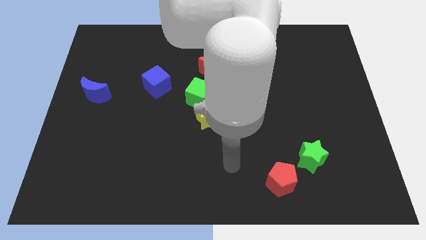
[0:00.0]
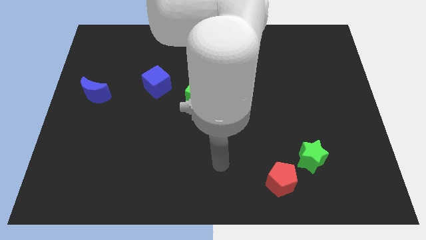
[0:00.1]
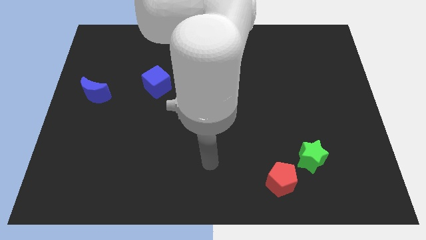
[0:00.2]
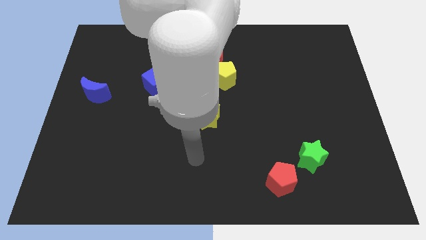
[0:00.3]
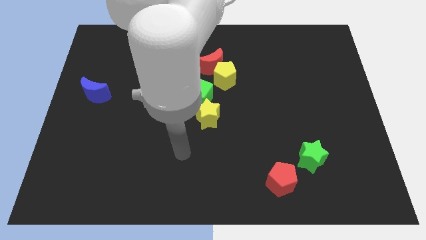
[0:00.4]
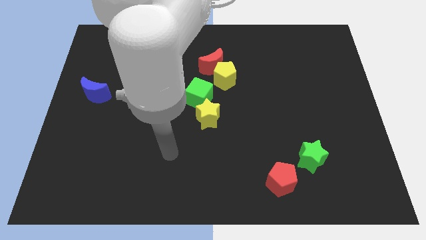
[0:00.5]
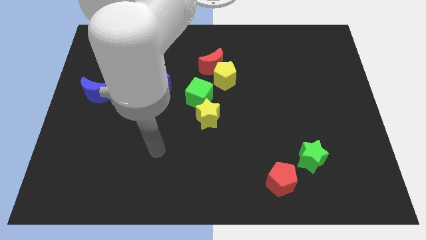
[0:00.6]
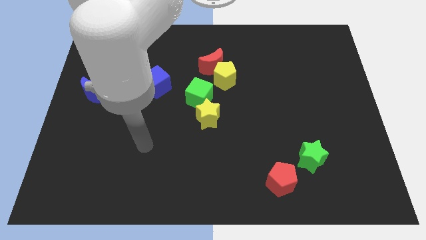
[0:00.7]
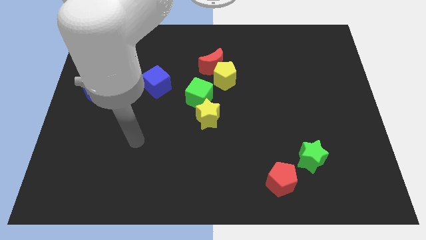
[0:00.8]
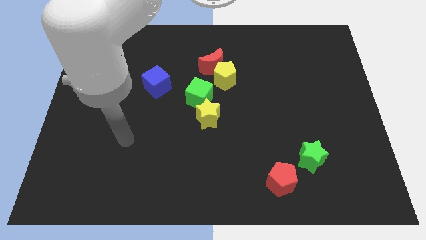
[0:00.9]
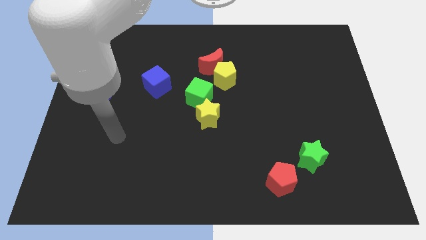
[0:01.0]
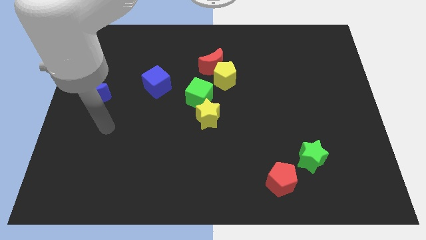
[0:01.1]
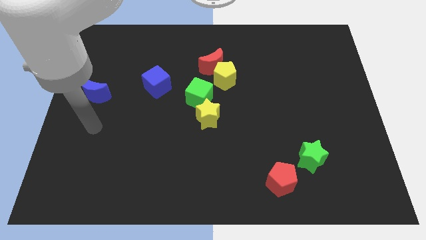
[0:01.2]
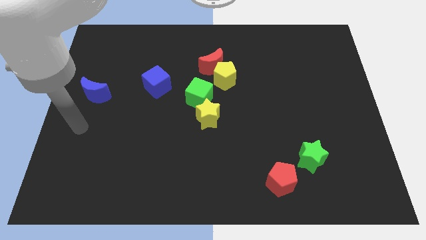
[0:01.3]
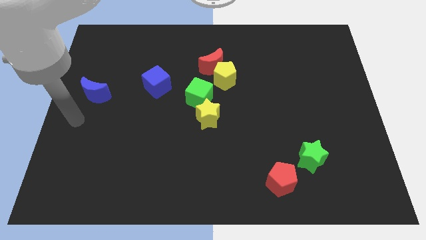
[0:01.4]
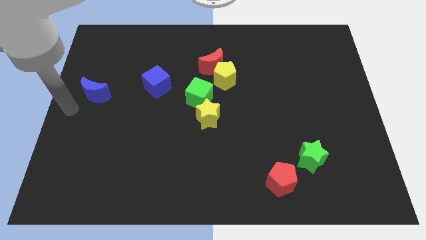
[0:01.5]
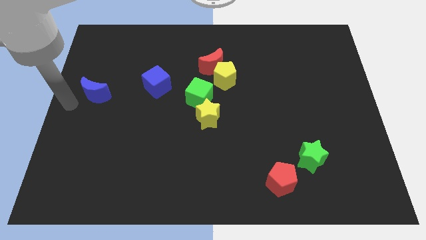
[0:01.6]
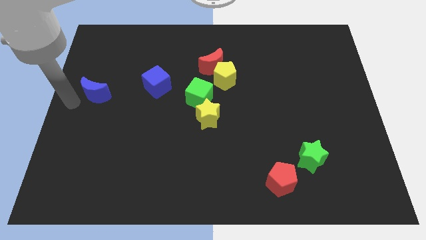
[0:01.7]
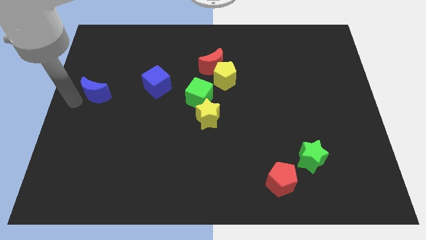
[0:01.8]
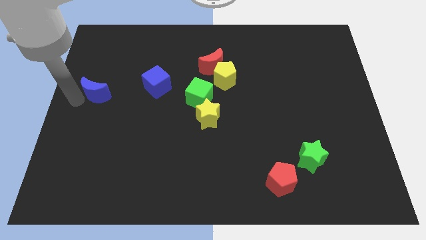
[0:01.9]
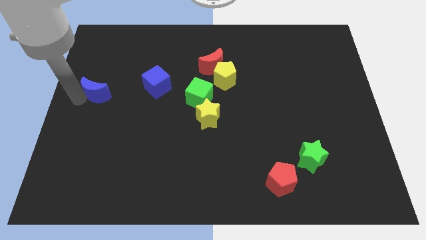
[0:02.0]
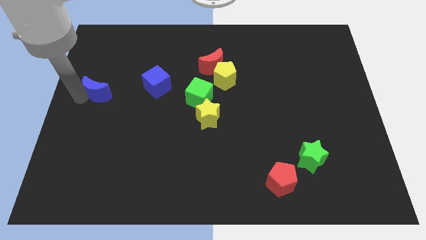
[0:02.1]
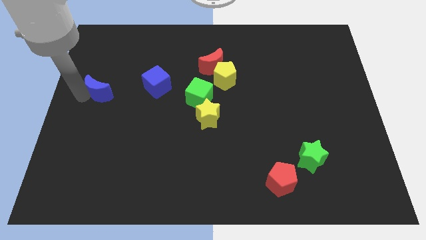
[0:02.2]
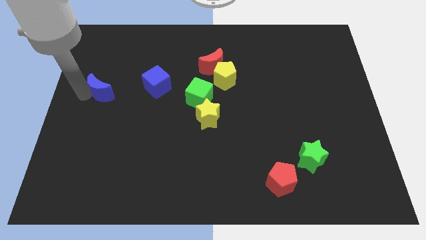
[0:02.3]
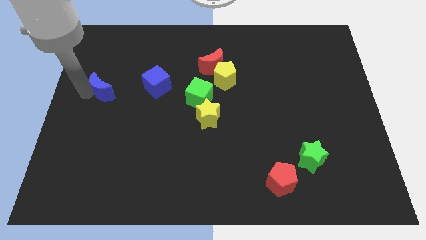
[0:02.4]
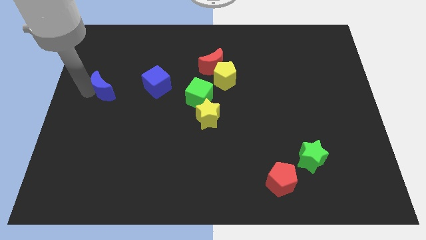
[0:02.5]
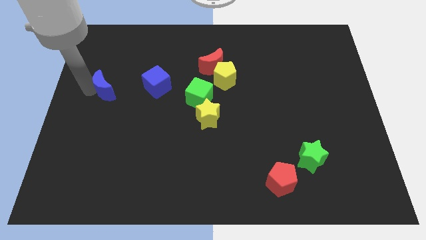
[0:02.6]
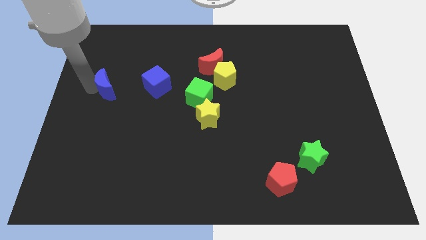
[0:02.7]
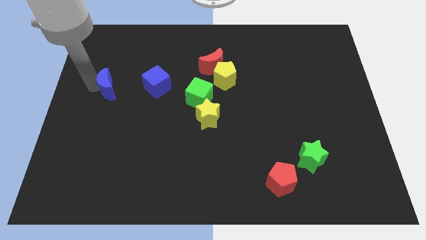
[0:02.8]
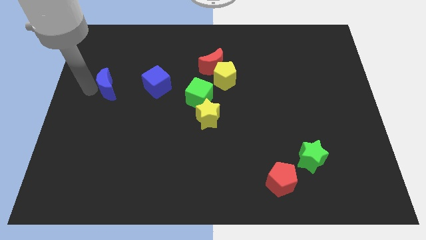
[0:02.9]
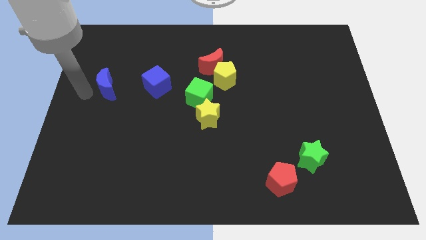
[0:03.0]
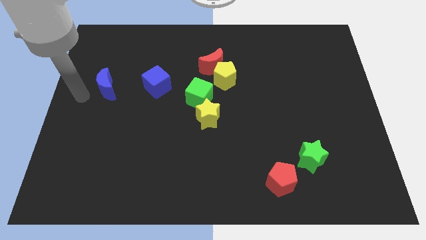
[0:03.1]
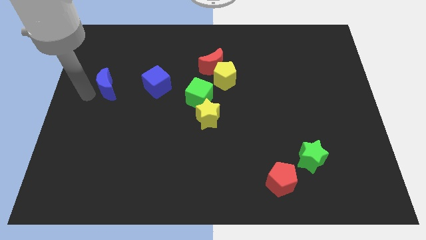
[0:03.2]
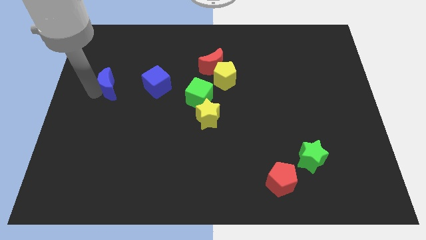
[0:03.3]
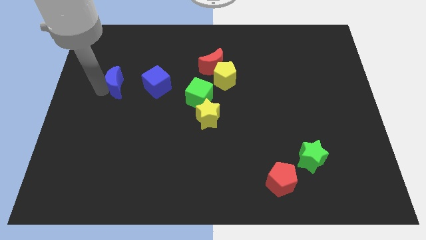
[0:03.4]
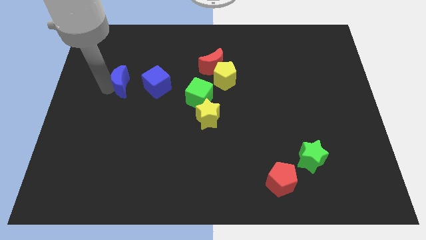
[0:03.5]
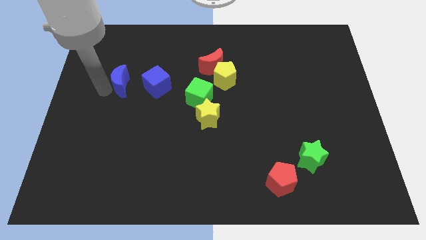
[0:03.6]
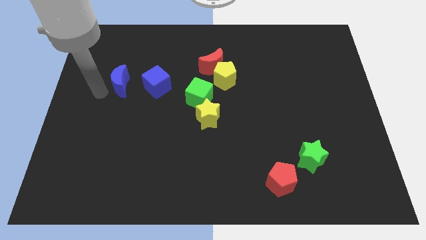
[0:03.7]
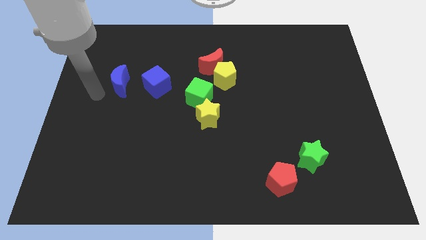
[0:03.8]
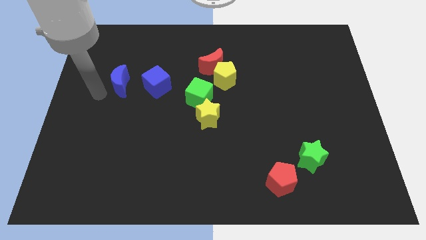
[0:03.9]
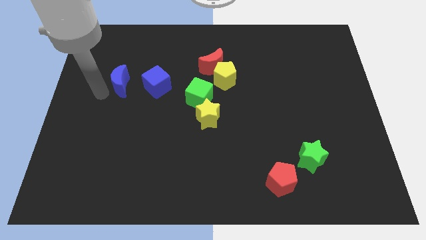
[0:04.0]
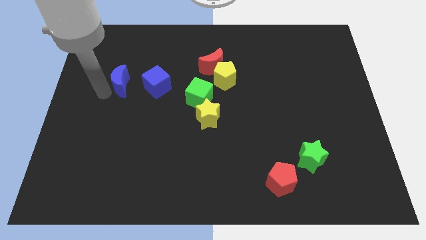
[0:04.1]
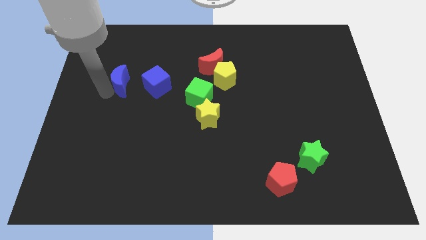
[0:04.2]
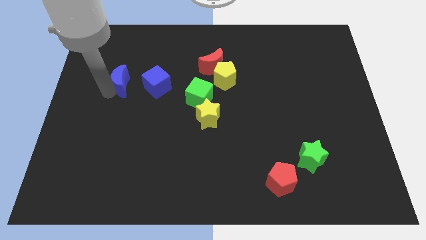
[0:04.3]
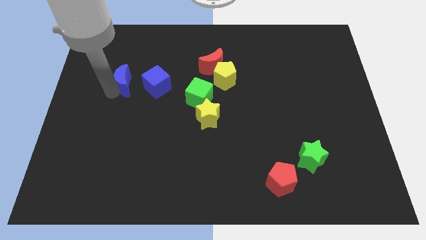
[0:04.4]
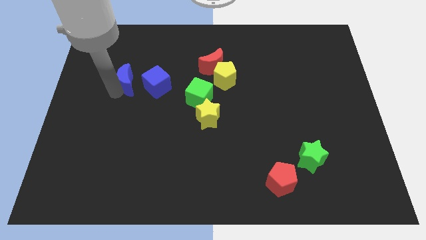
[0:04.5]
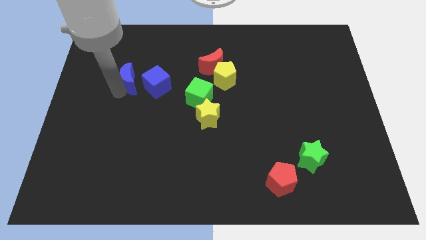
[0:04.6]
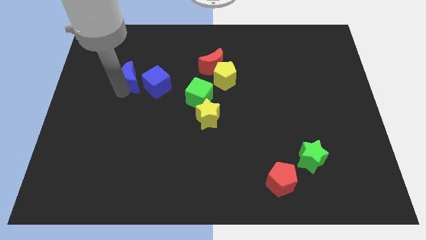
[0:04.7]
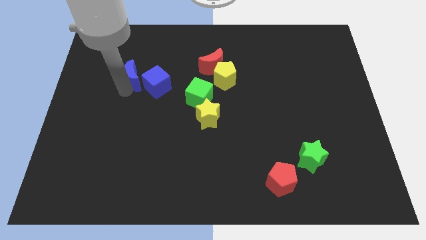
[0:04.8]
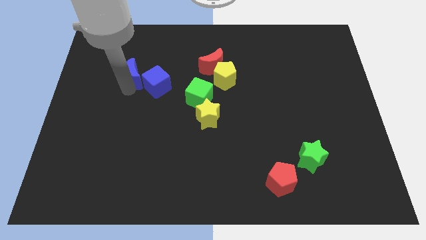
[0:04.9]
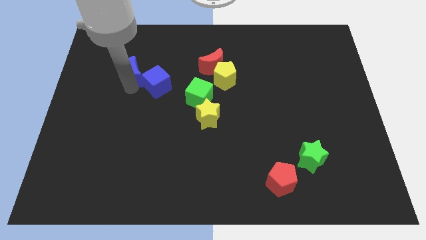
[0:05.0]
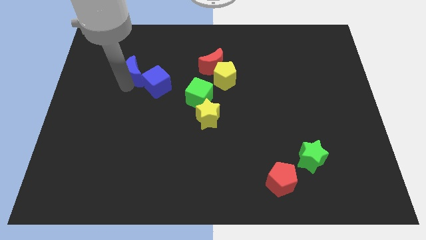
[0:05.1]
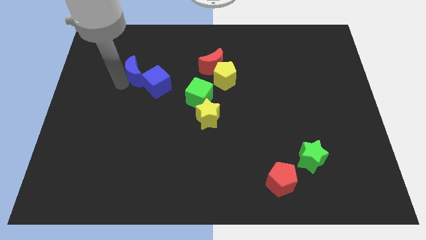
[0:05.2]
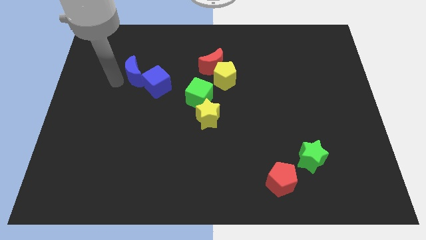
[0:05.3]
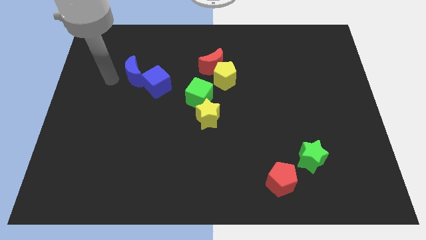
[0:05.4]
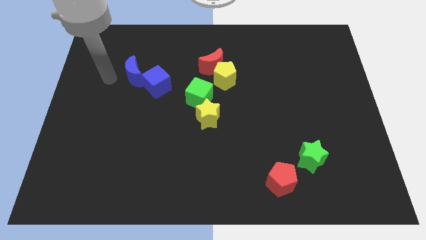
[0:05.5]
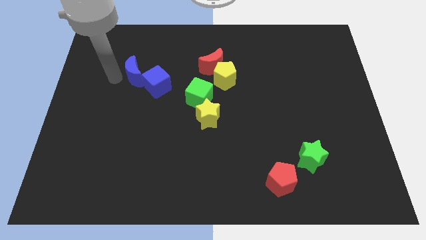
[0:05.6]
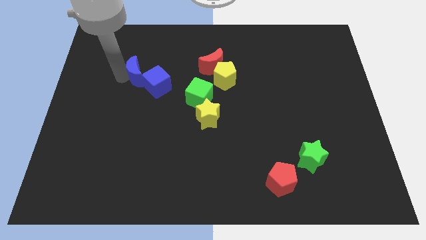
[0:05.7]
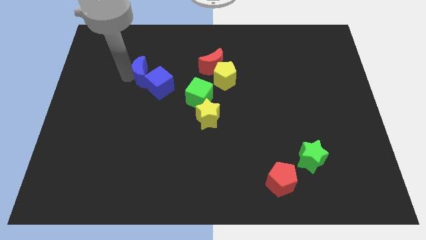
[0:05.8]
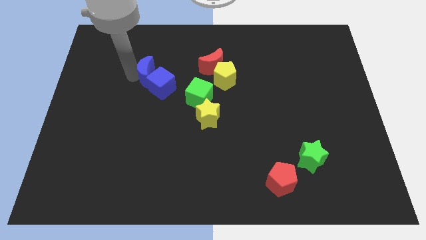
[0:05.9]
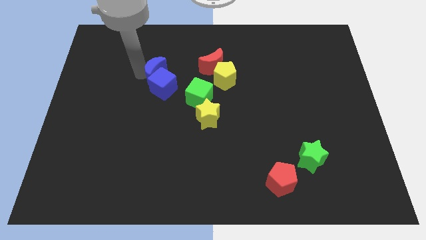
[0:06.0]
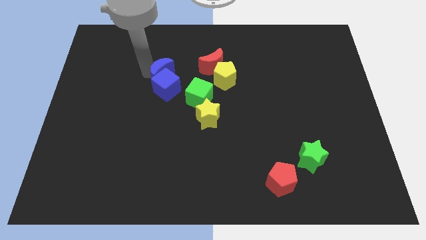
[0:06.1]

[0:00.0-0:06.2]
slide the blue moon diagonally up and to the left of the green cube

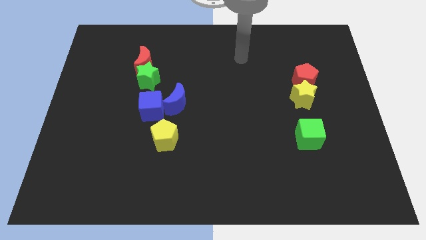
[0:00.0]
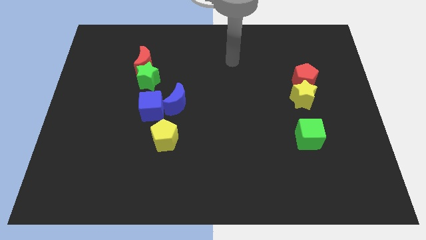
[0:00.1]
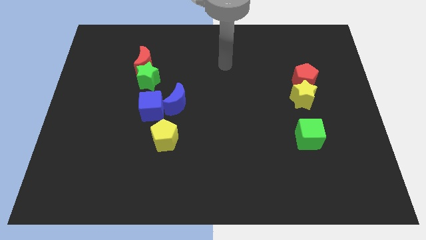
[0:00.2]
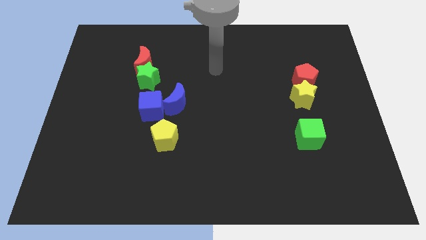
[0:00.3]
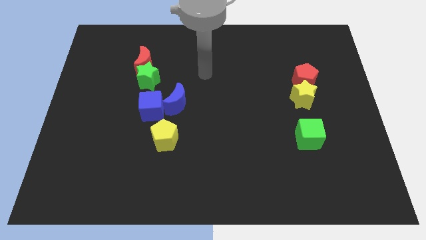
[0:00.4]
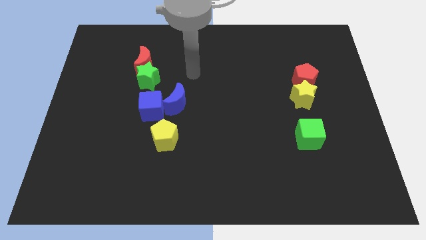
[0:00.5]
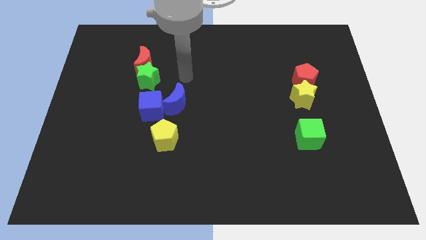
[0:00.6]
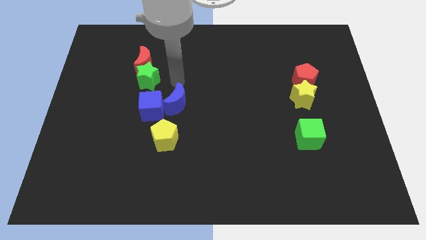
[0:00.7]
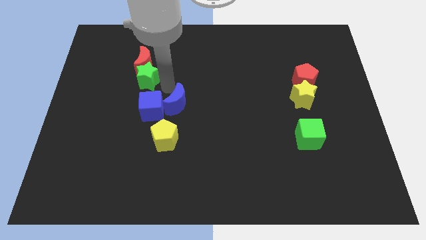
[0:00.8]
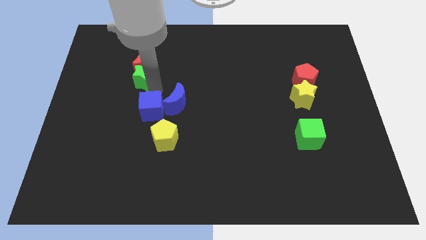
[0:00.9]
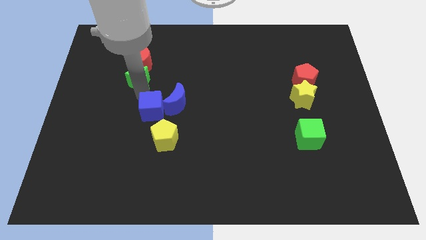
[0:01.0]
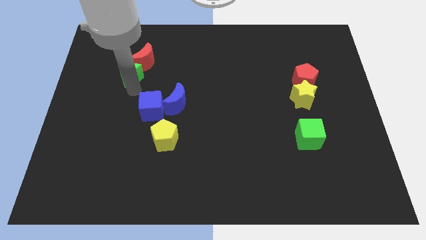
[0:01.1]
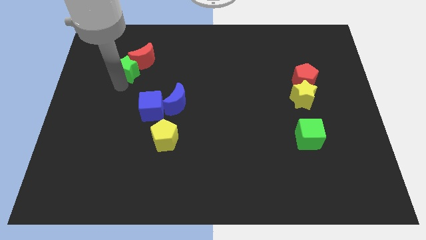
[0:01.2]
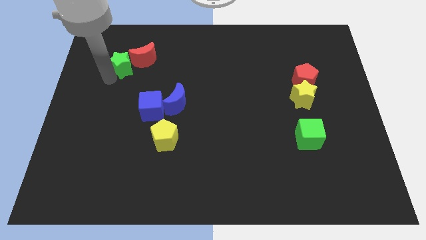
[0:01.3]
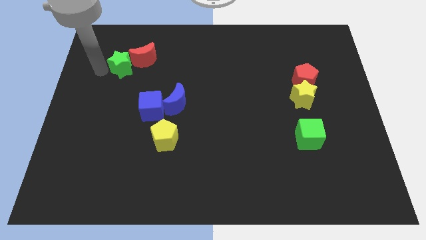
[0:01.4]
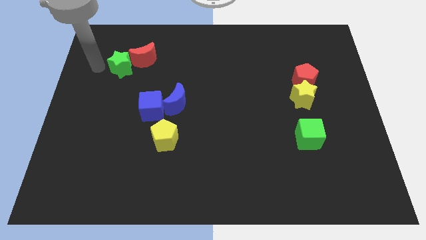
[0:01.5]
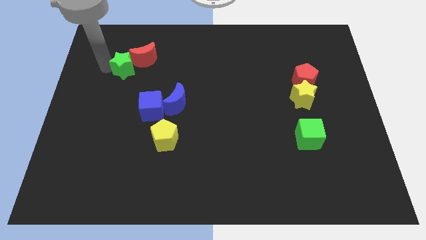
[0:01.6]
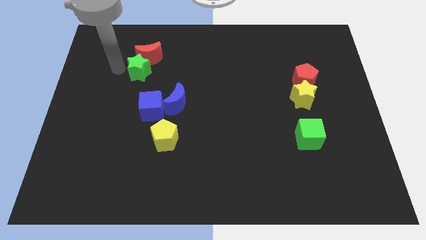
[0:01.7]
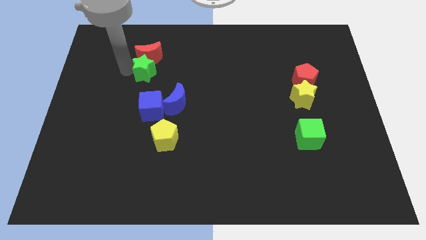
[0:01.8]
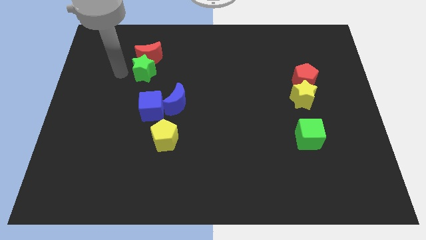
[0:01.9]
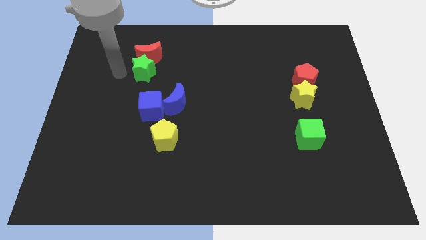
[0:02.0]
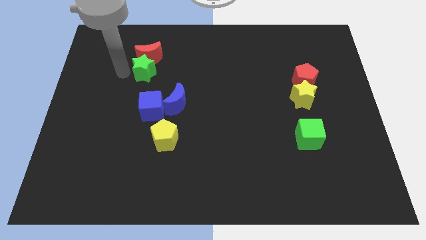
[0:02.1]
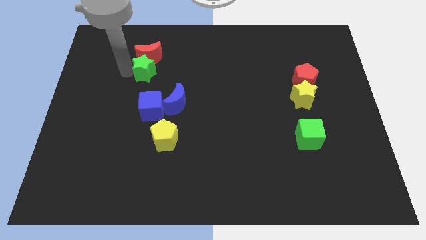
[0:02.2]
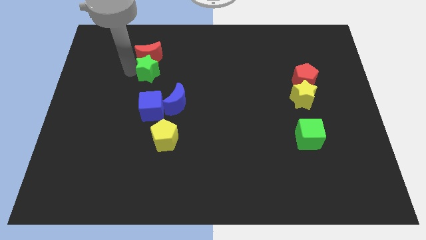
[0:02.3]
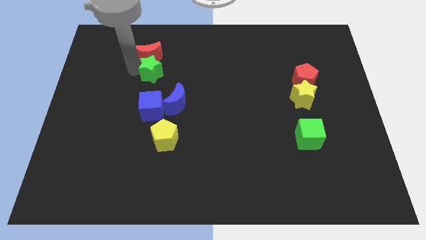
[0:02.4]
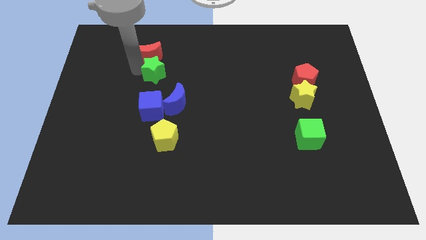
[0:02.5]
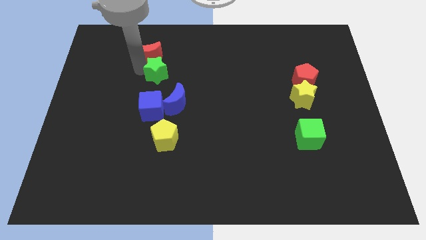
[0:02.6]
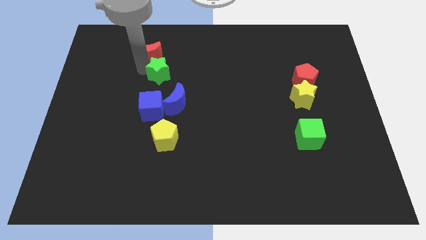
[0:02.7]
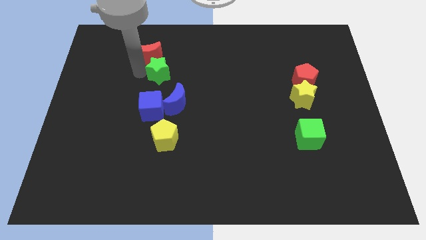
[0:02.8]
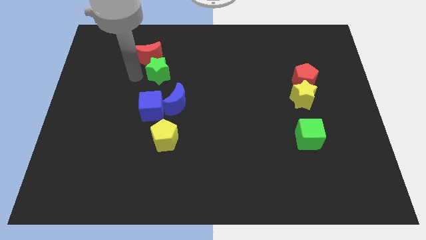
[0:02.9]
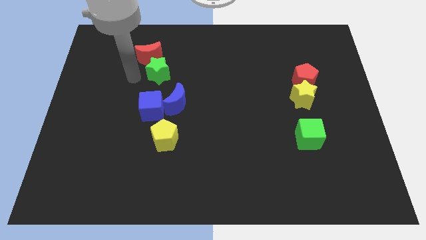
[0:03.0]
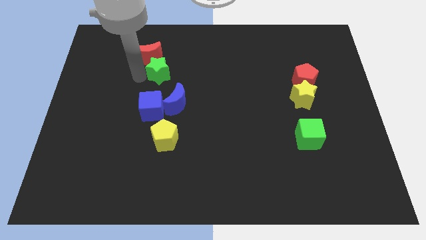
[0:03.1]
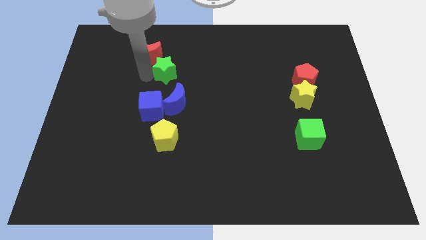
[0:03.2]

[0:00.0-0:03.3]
put the green star to the top of the blue moon
